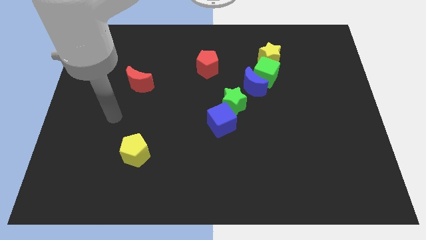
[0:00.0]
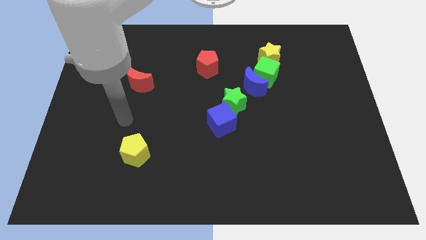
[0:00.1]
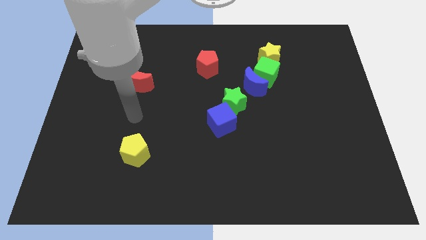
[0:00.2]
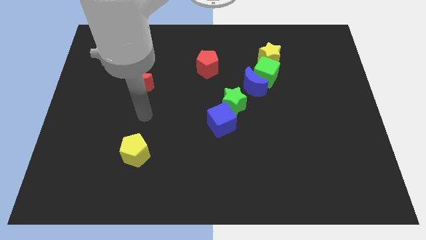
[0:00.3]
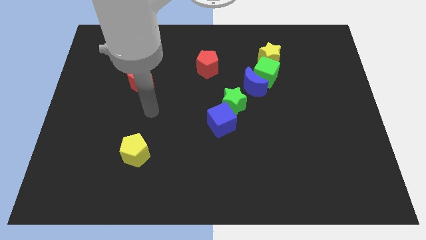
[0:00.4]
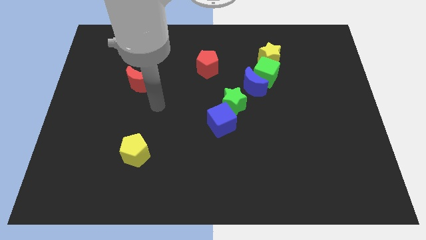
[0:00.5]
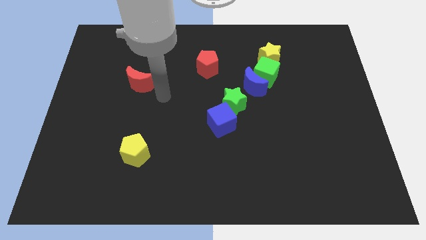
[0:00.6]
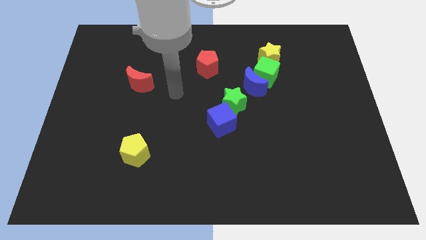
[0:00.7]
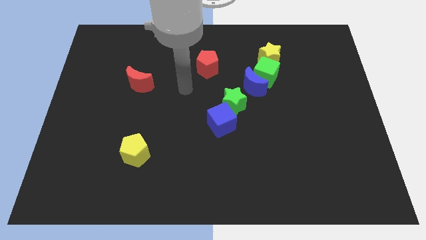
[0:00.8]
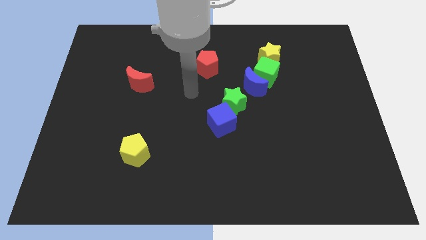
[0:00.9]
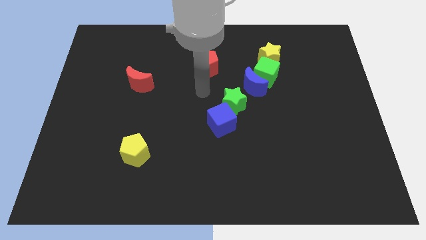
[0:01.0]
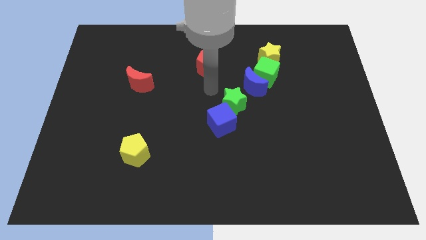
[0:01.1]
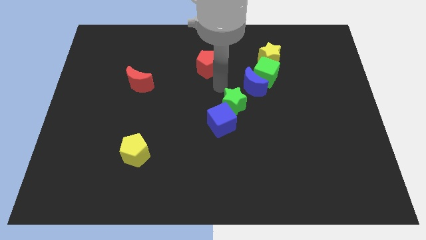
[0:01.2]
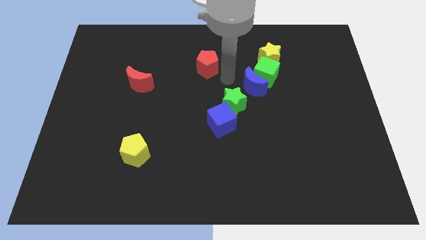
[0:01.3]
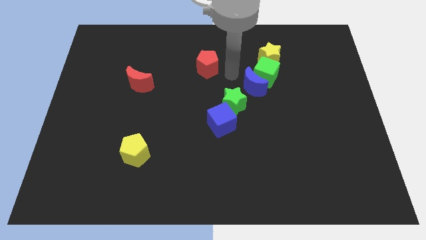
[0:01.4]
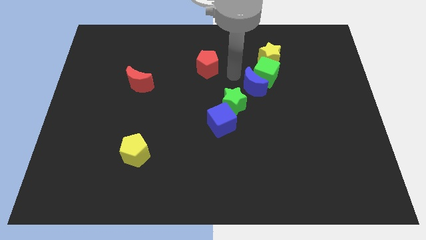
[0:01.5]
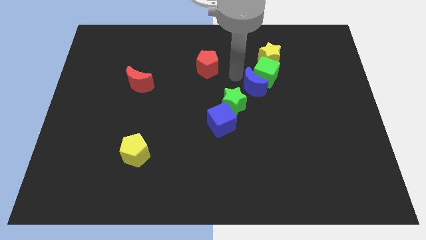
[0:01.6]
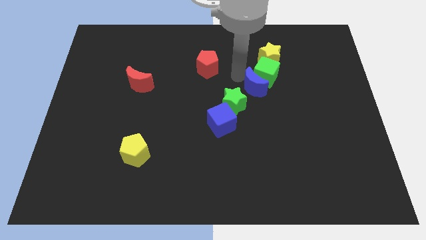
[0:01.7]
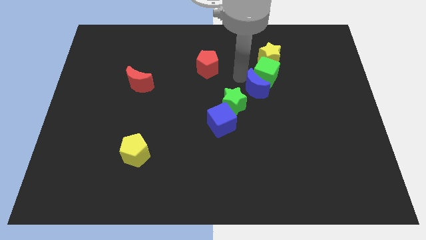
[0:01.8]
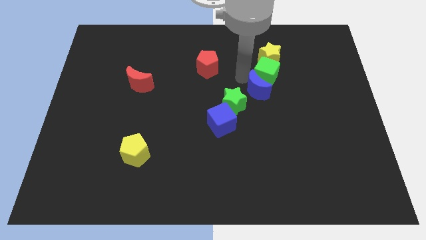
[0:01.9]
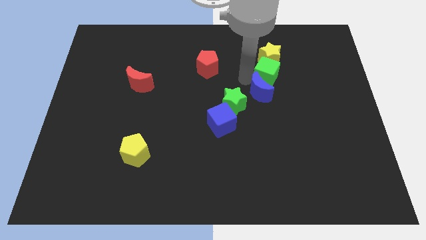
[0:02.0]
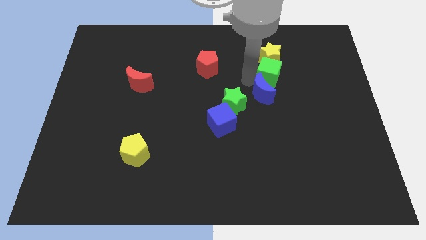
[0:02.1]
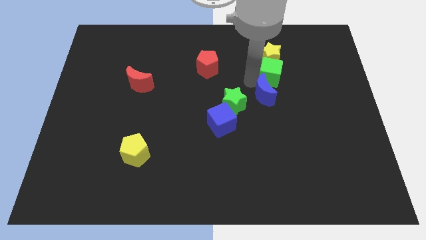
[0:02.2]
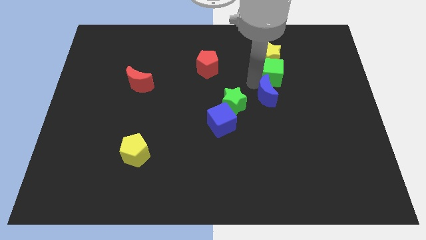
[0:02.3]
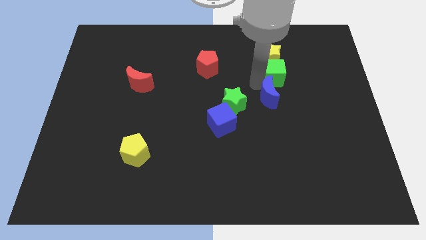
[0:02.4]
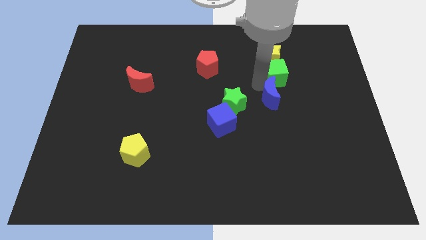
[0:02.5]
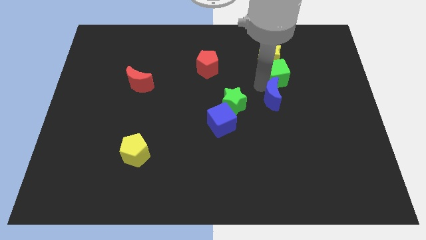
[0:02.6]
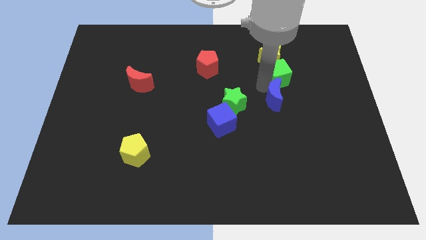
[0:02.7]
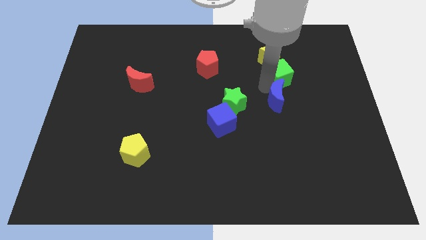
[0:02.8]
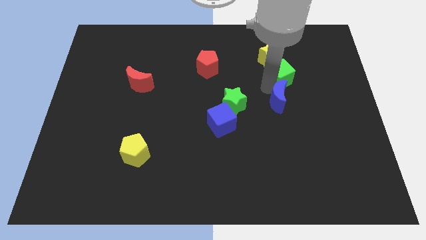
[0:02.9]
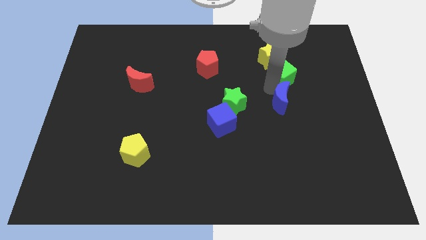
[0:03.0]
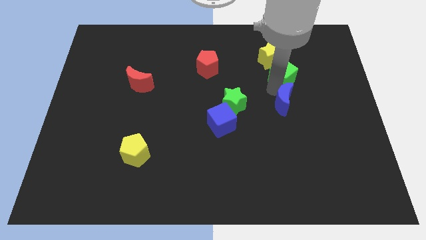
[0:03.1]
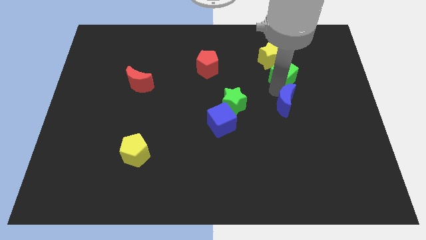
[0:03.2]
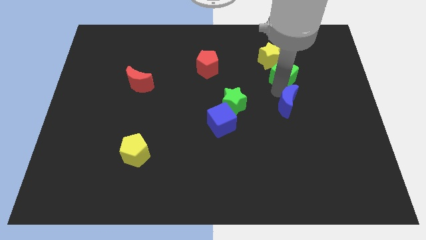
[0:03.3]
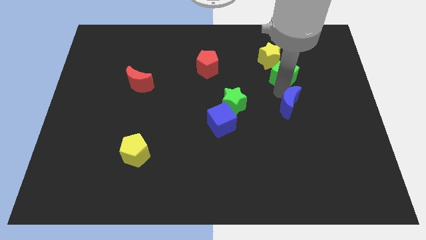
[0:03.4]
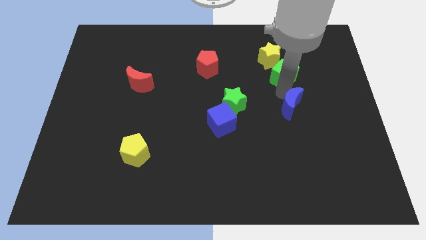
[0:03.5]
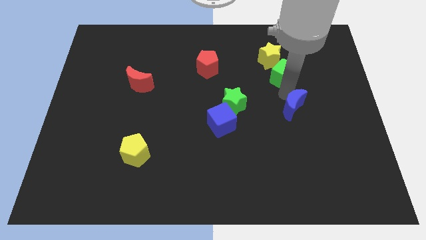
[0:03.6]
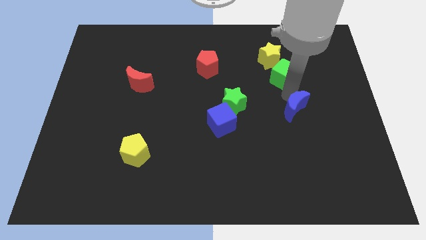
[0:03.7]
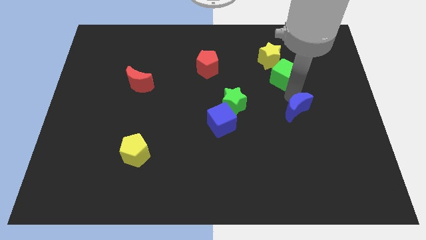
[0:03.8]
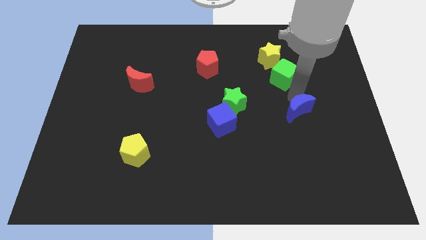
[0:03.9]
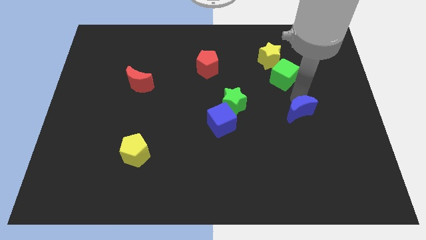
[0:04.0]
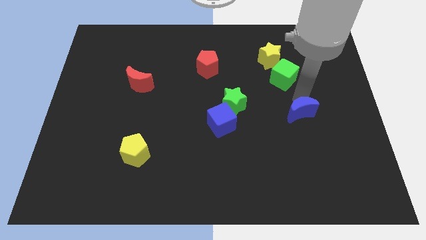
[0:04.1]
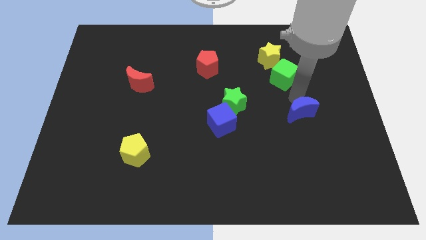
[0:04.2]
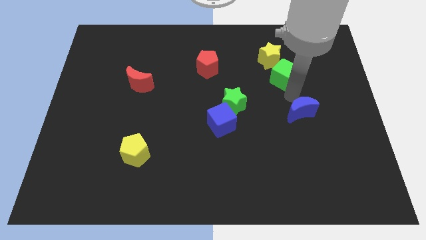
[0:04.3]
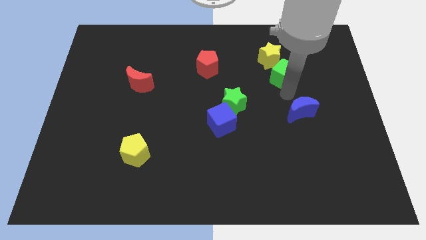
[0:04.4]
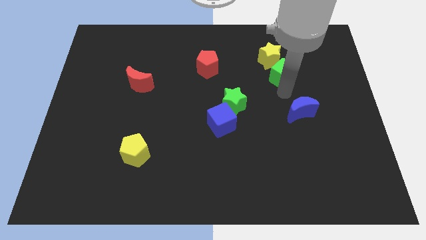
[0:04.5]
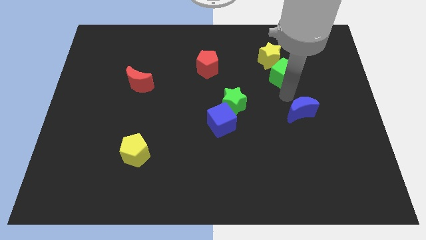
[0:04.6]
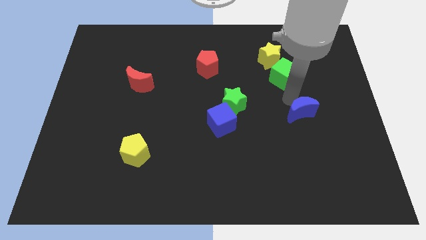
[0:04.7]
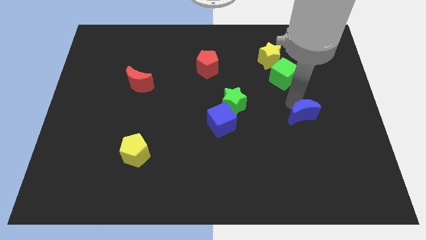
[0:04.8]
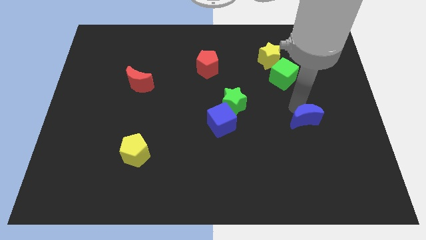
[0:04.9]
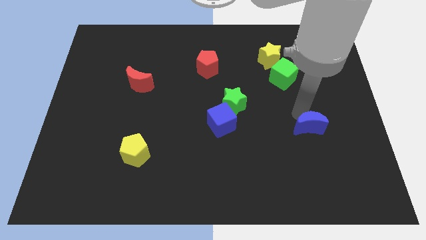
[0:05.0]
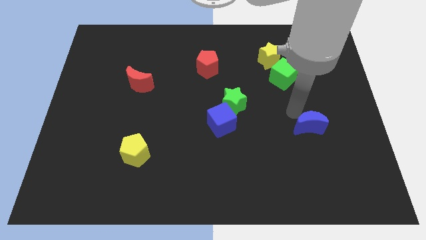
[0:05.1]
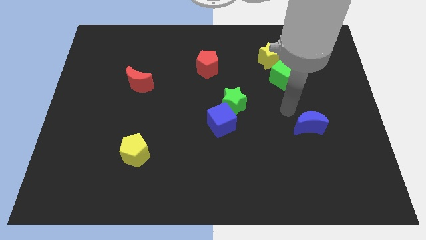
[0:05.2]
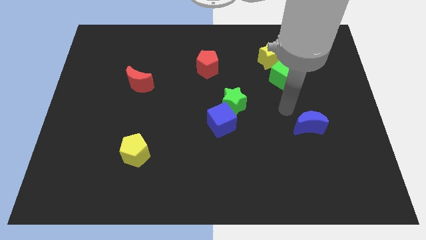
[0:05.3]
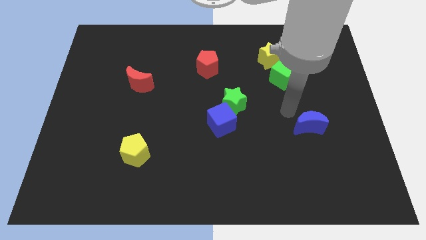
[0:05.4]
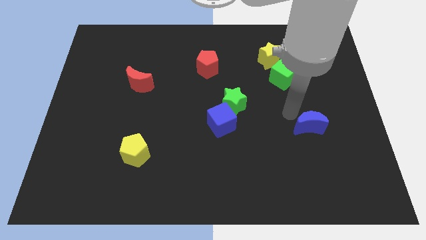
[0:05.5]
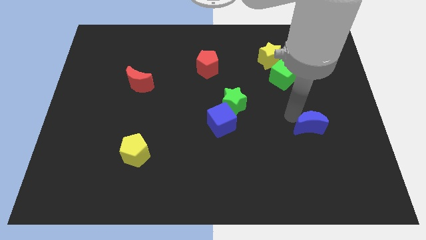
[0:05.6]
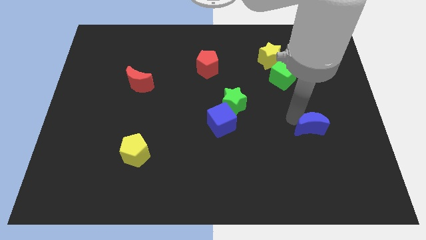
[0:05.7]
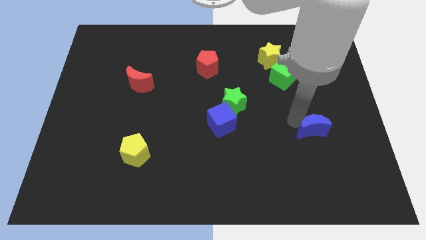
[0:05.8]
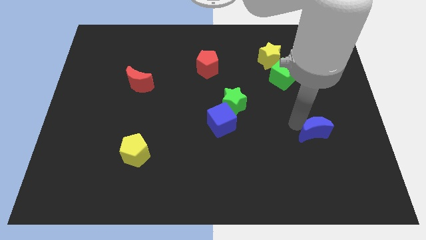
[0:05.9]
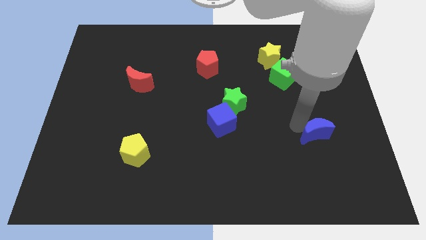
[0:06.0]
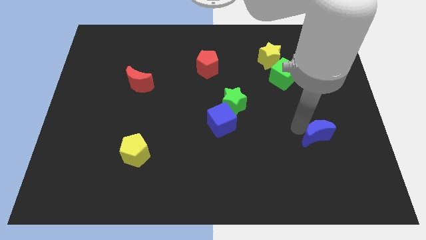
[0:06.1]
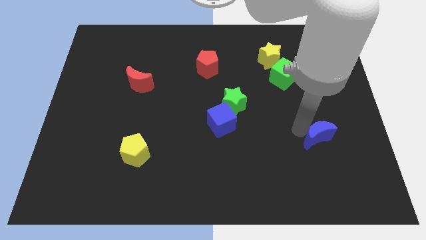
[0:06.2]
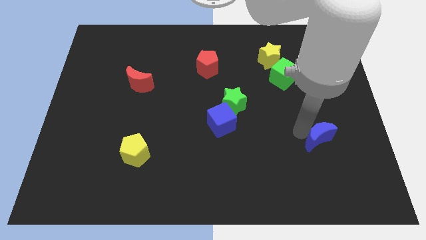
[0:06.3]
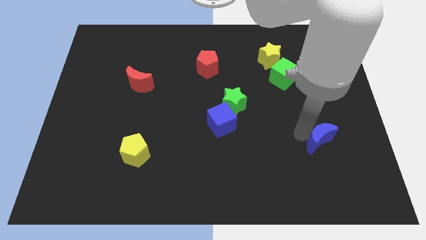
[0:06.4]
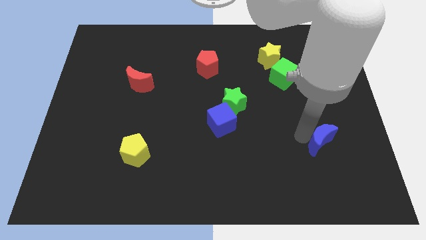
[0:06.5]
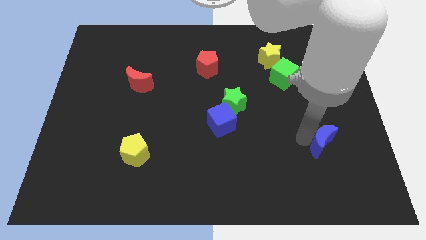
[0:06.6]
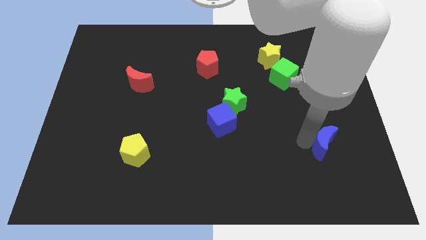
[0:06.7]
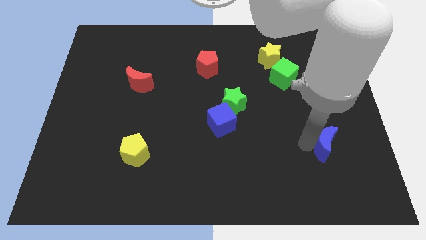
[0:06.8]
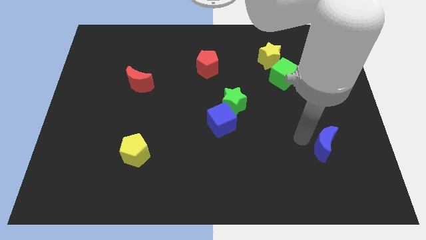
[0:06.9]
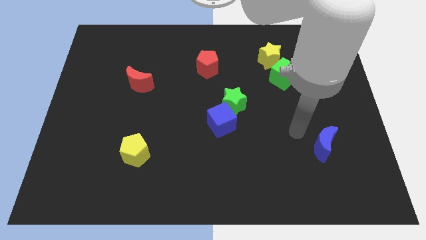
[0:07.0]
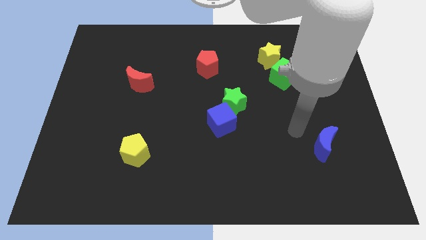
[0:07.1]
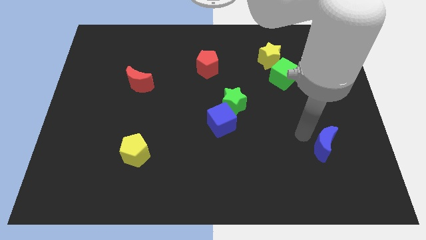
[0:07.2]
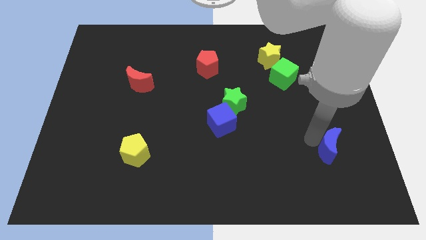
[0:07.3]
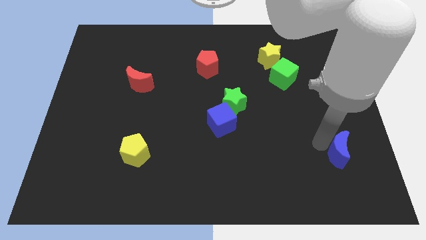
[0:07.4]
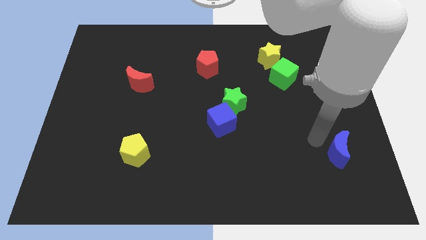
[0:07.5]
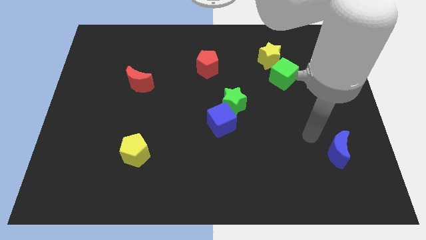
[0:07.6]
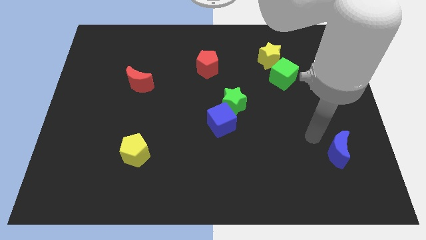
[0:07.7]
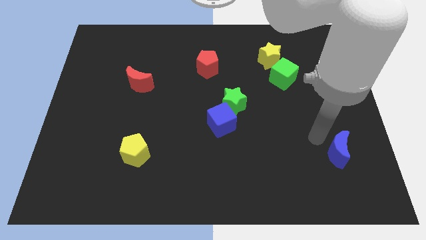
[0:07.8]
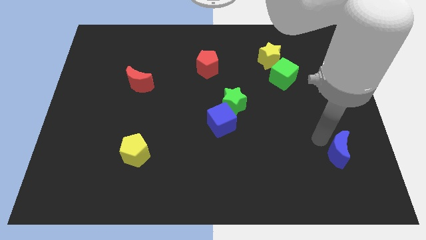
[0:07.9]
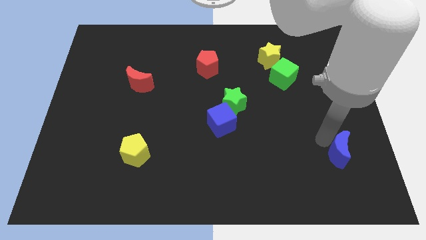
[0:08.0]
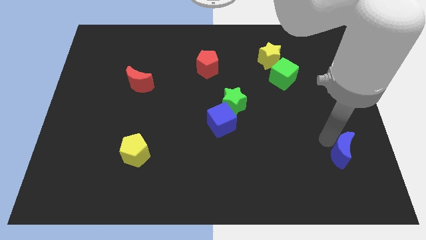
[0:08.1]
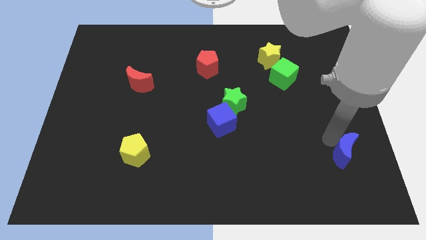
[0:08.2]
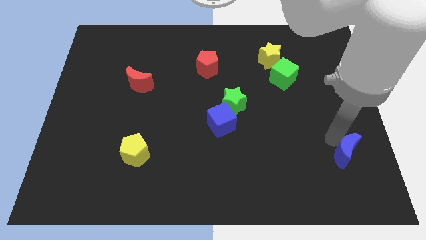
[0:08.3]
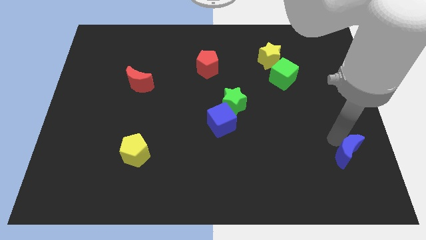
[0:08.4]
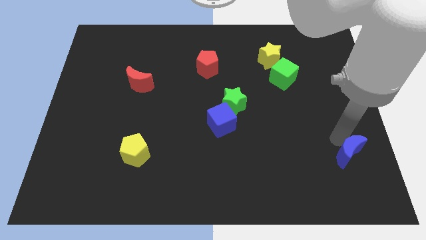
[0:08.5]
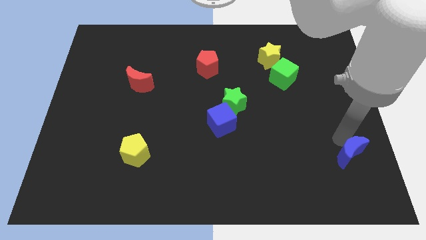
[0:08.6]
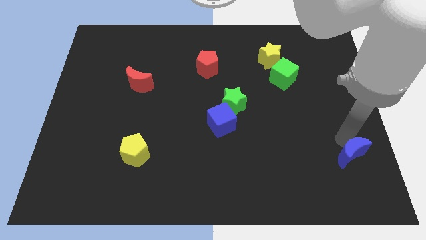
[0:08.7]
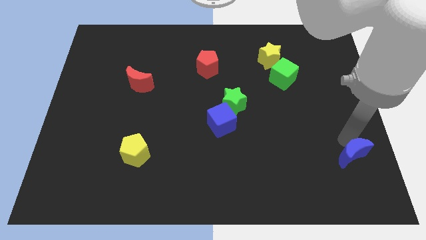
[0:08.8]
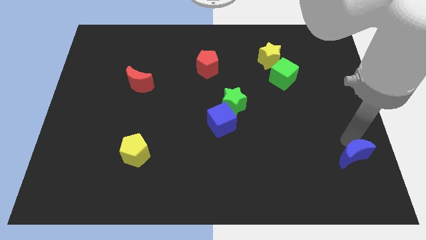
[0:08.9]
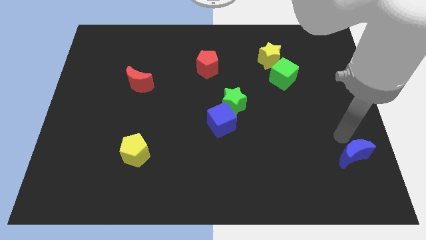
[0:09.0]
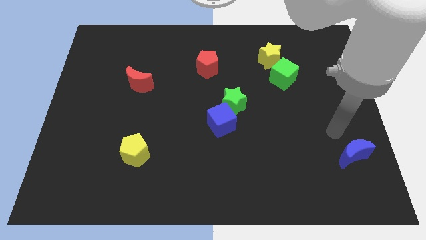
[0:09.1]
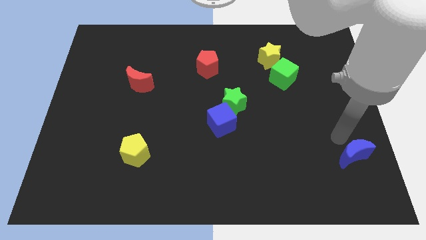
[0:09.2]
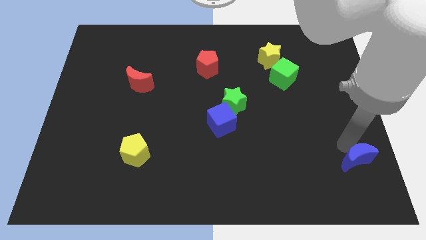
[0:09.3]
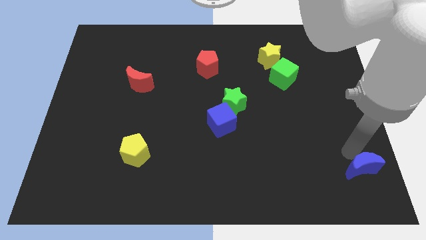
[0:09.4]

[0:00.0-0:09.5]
slide the blue moon to the bottom right of the board
